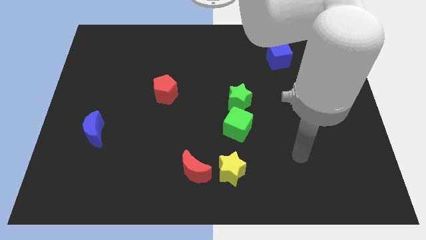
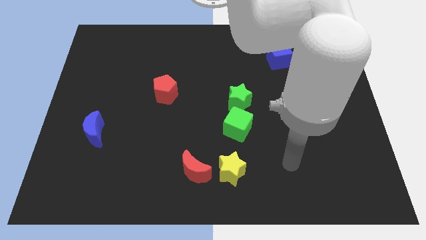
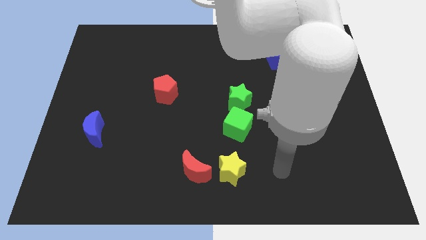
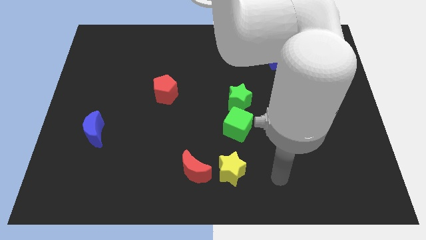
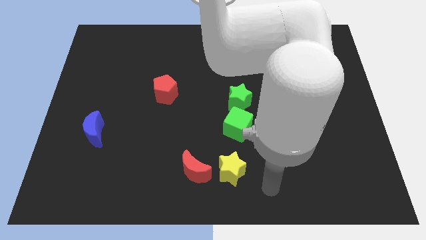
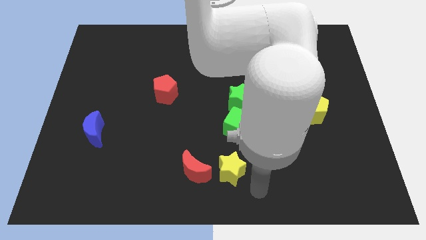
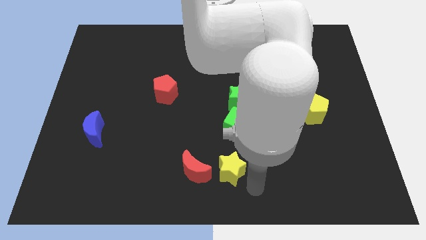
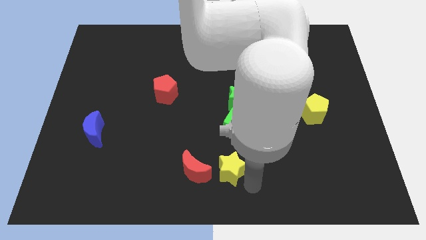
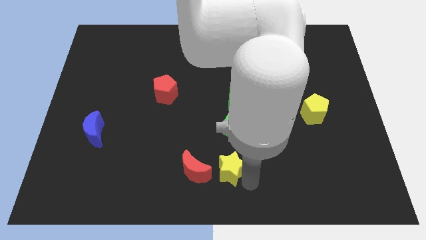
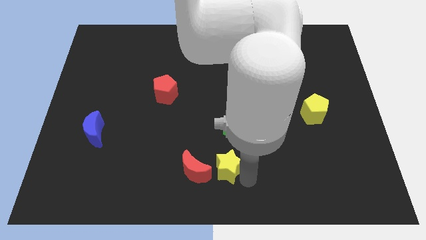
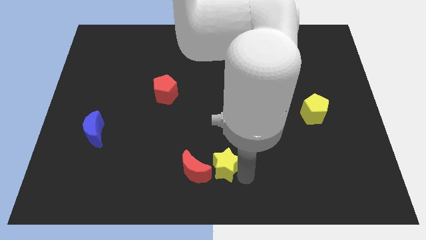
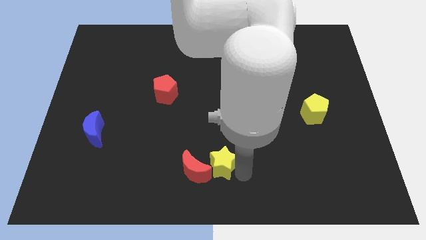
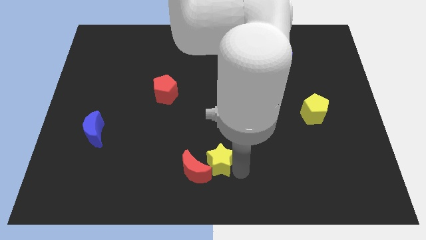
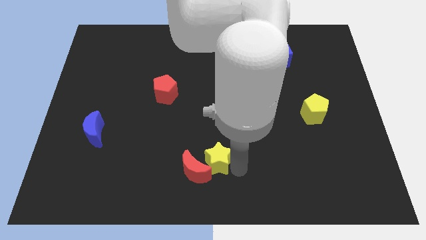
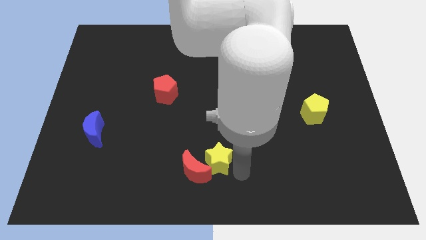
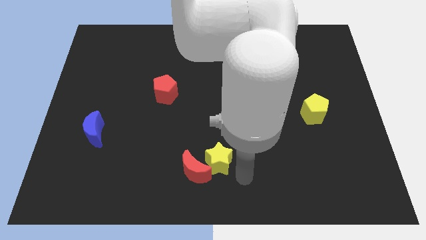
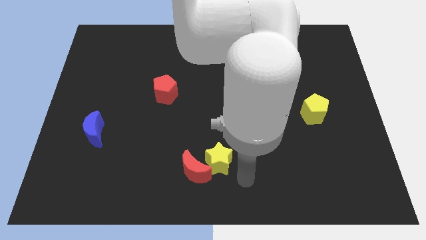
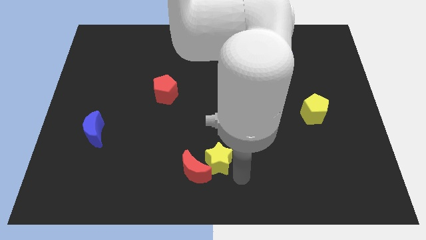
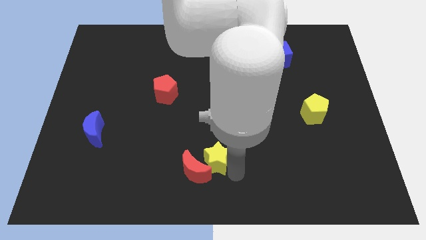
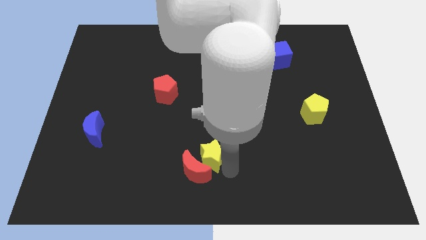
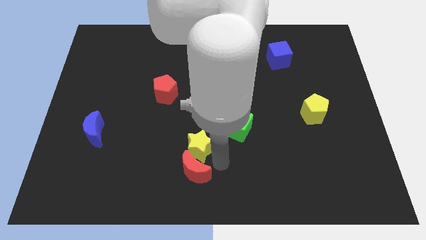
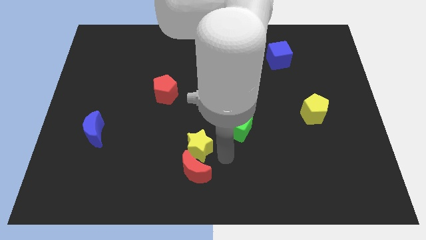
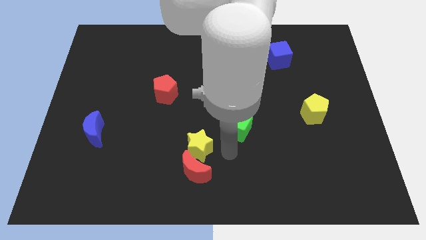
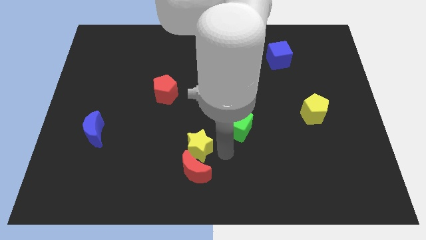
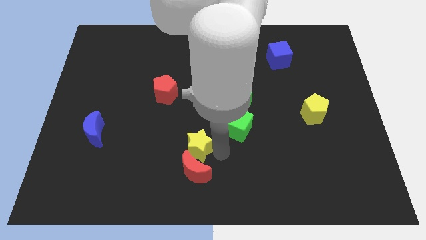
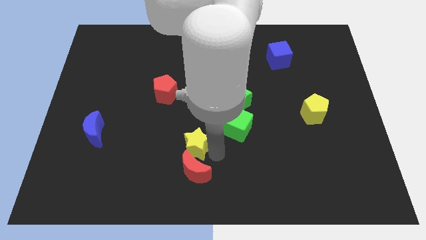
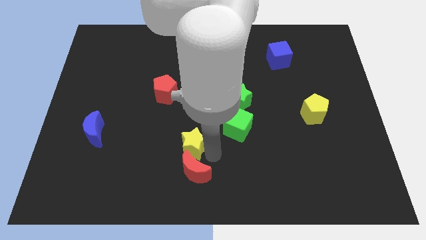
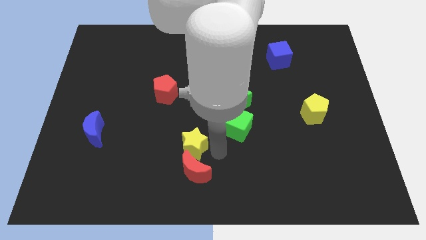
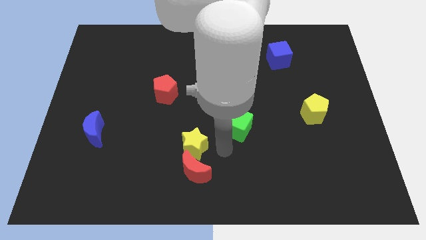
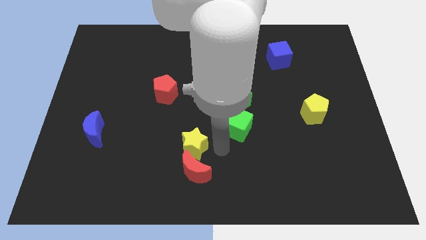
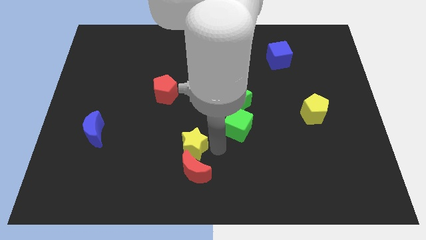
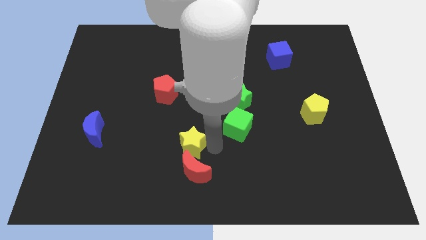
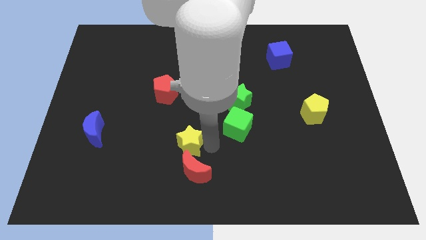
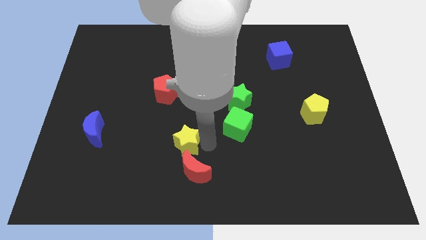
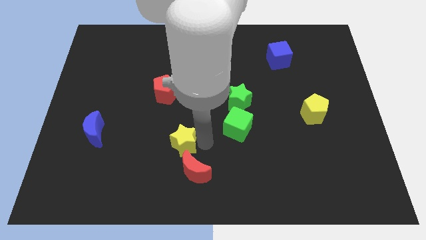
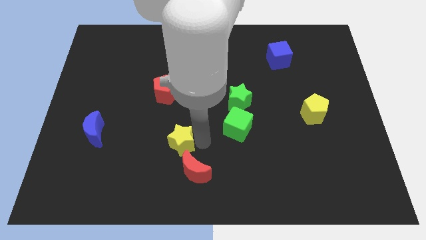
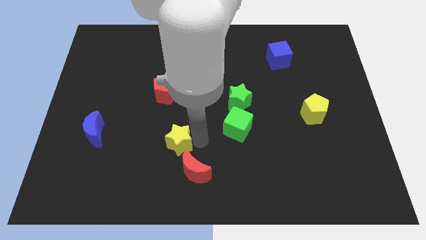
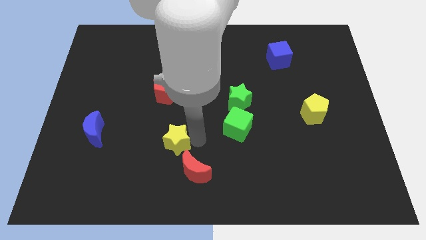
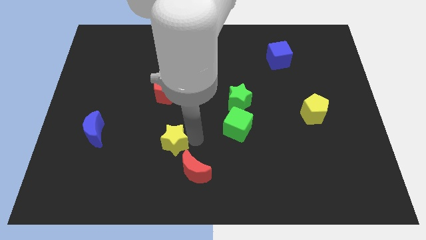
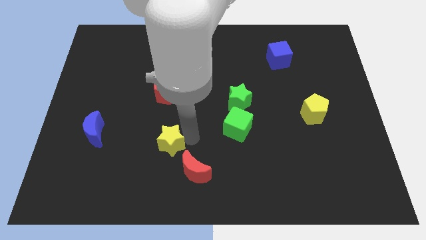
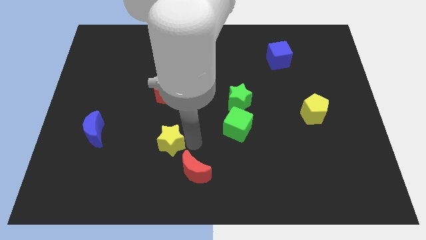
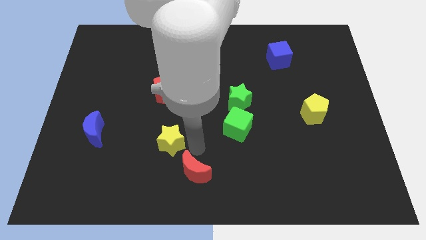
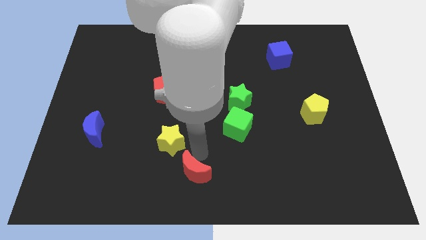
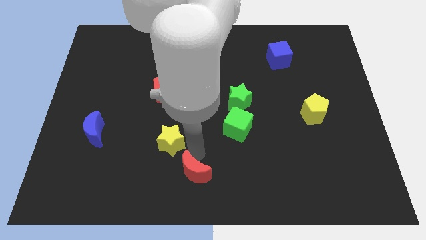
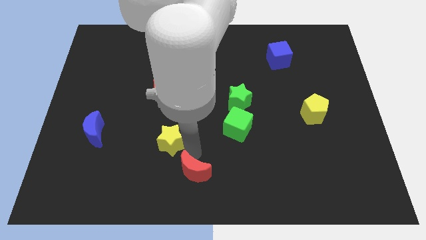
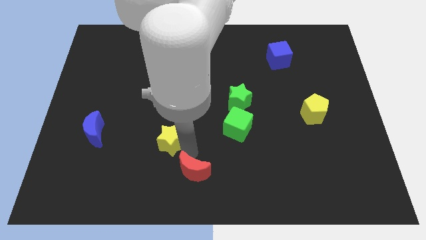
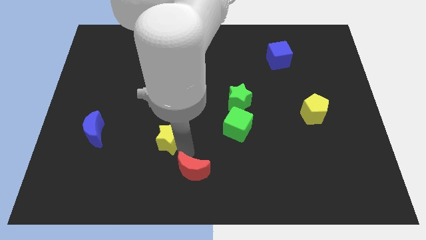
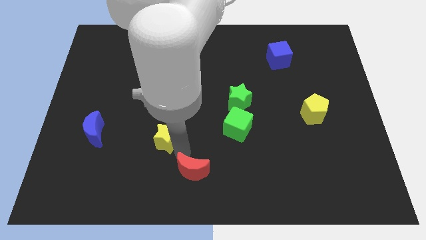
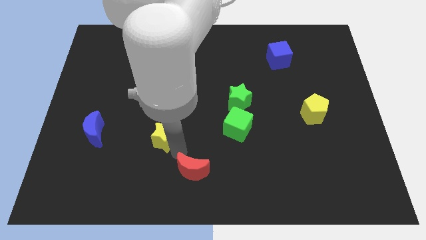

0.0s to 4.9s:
move the yellow star to the right of the blue moon

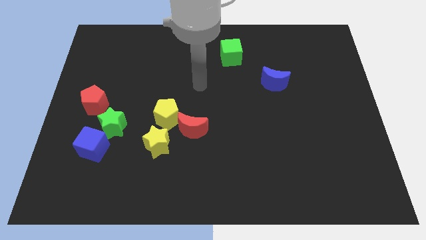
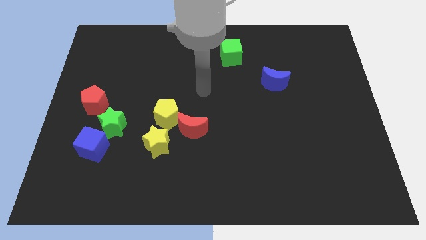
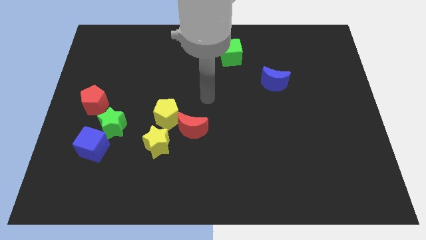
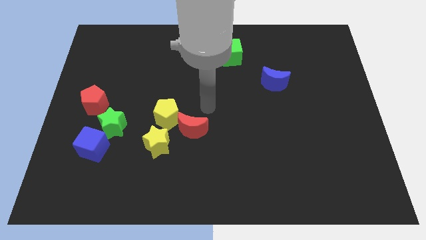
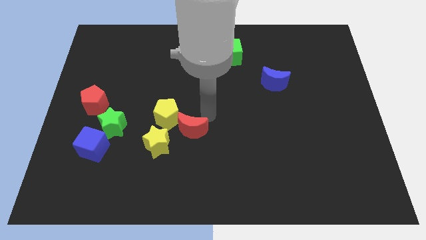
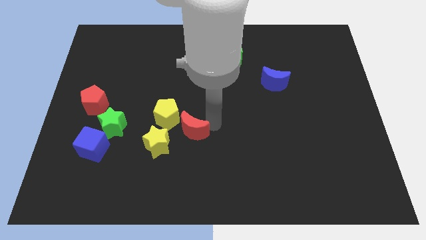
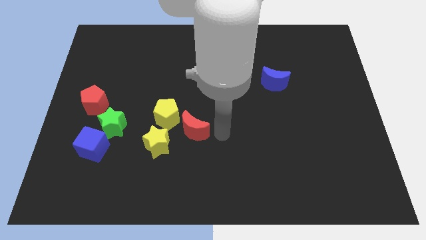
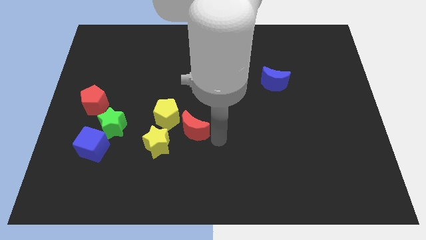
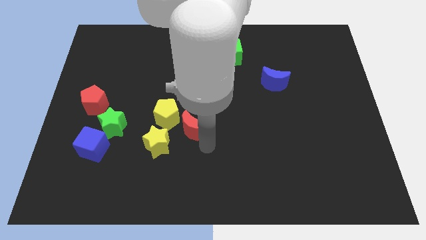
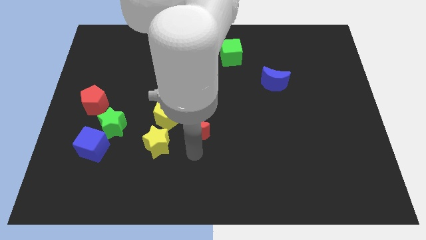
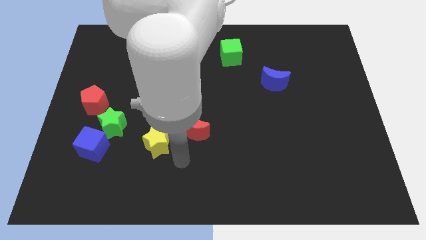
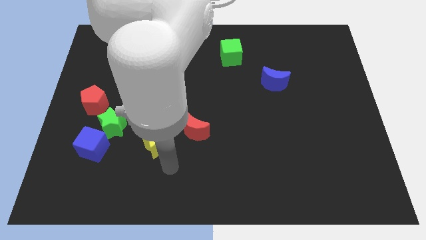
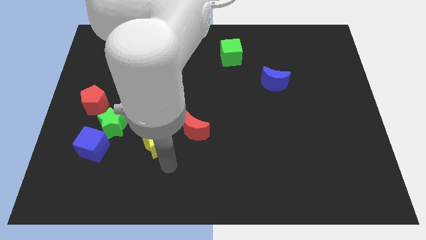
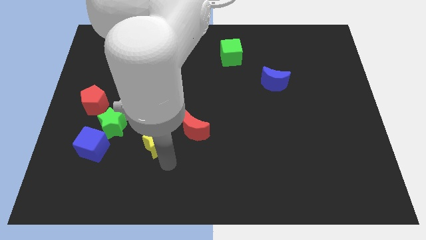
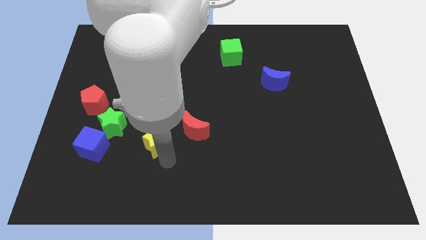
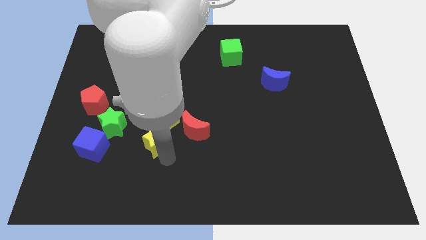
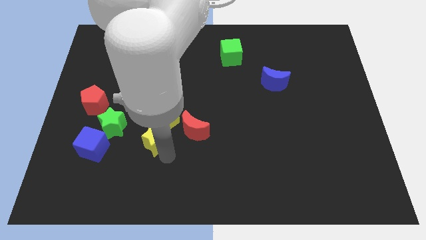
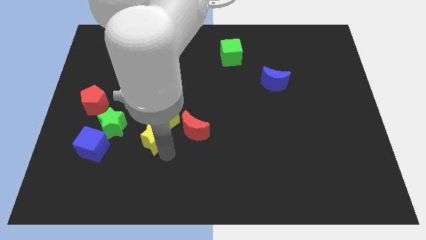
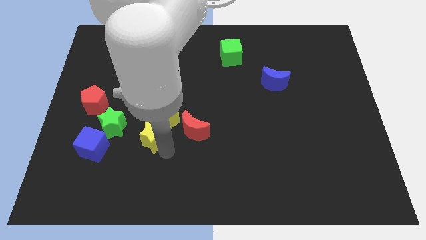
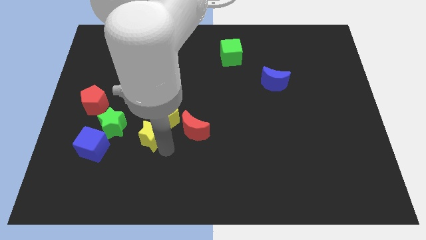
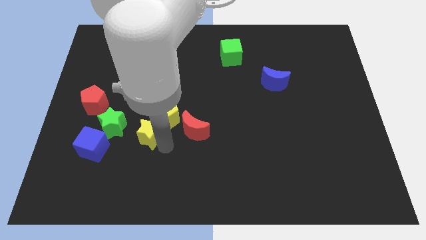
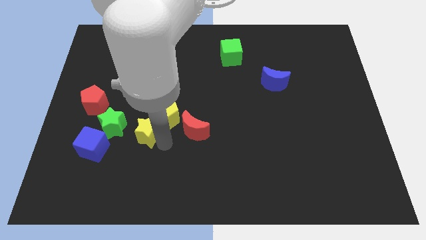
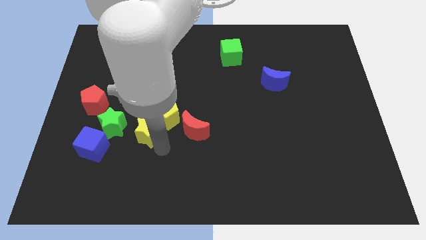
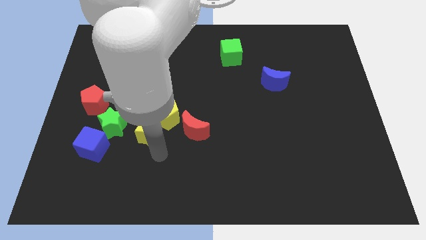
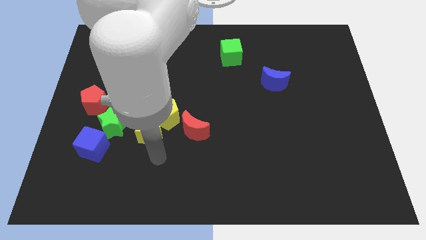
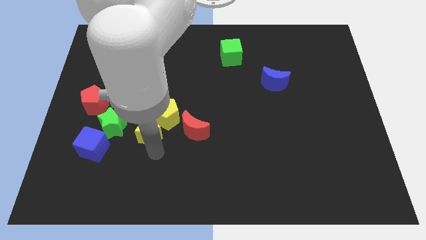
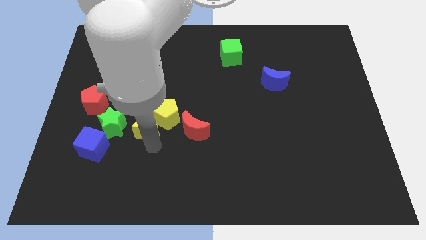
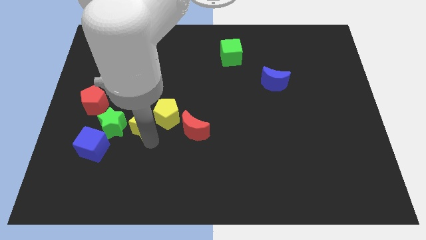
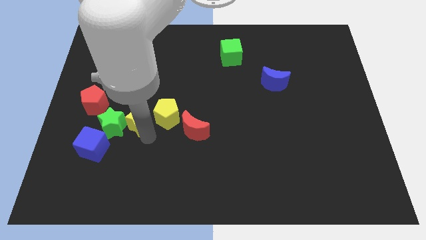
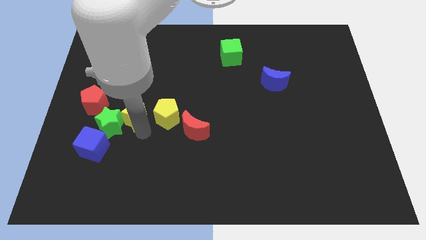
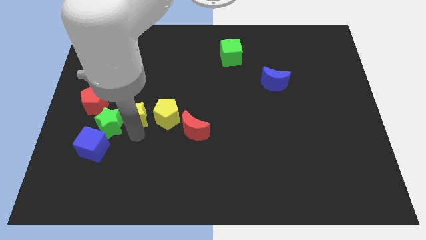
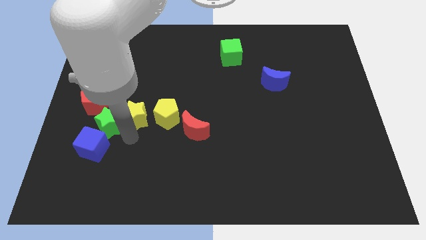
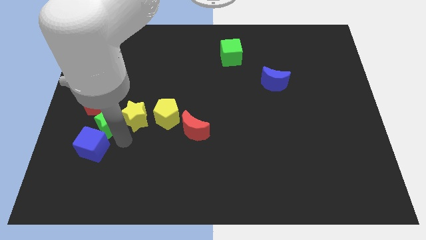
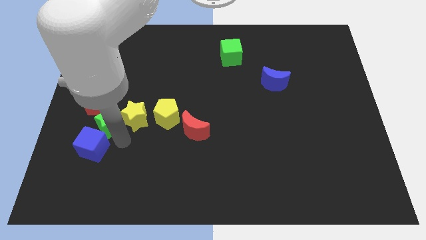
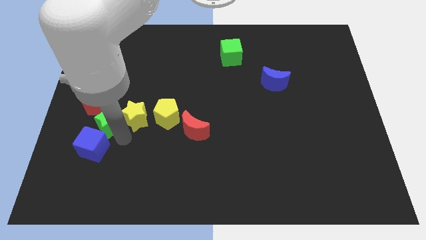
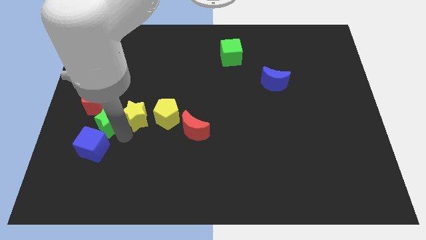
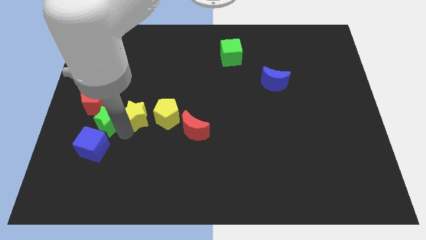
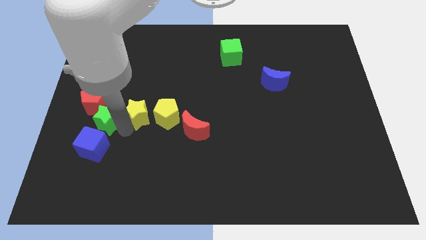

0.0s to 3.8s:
slide the yellow star to the top left of the yellow pentagon
